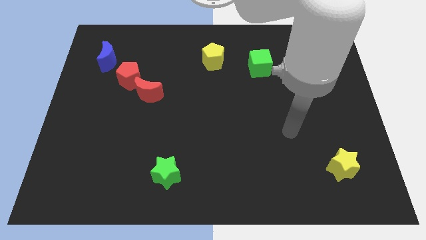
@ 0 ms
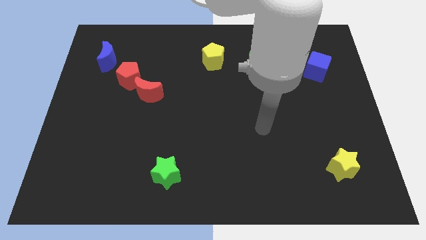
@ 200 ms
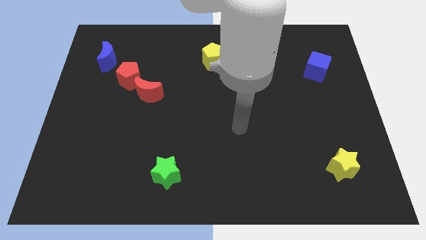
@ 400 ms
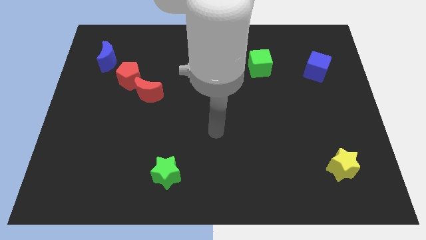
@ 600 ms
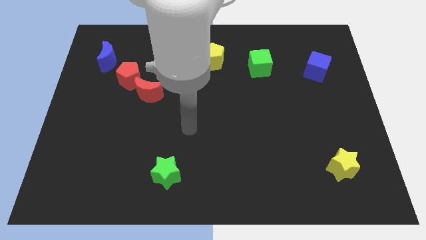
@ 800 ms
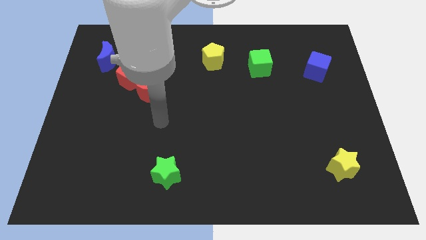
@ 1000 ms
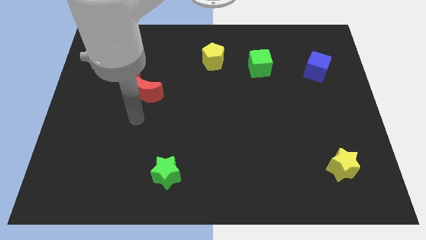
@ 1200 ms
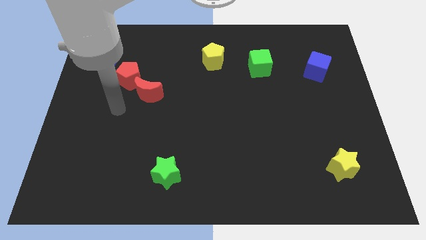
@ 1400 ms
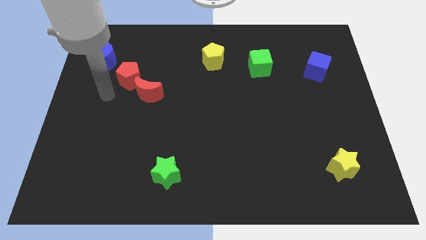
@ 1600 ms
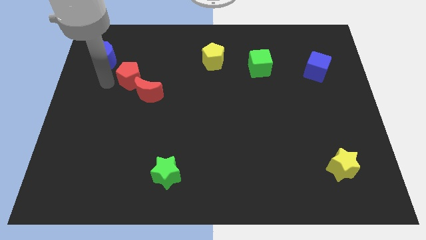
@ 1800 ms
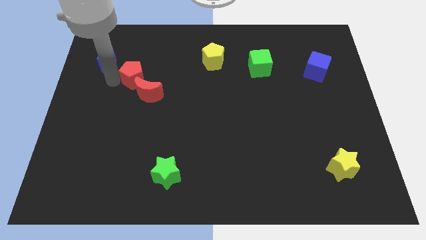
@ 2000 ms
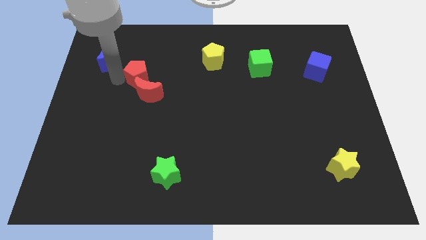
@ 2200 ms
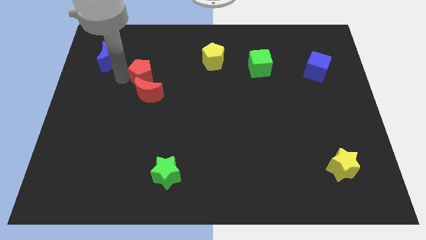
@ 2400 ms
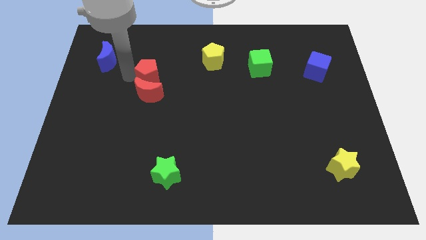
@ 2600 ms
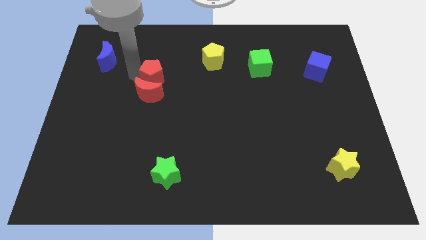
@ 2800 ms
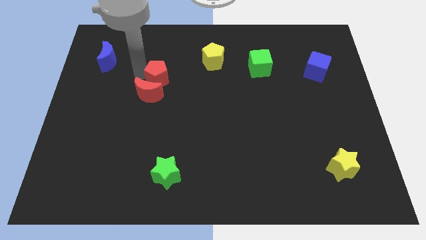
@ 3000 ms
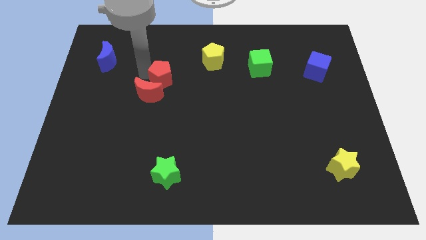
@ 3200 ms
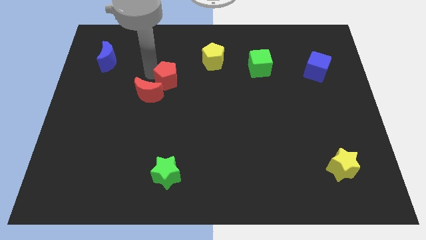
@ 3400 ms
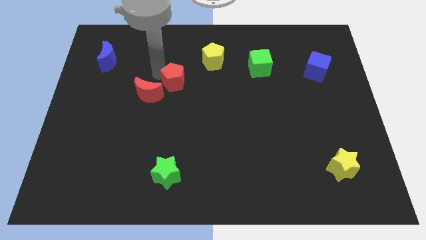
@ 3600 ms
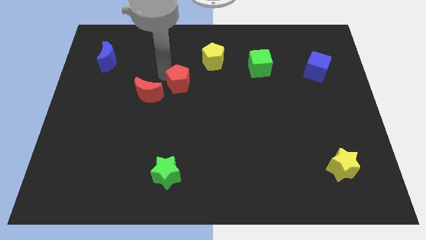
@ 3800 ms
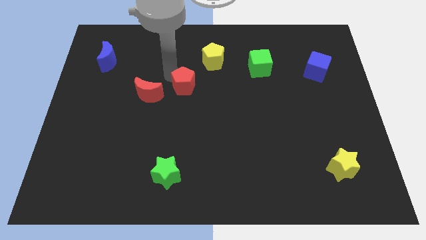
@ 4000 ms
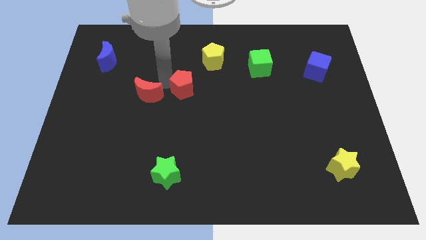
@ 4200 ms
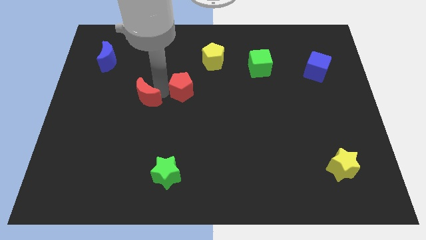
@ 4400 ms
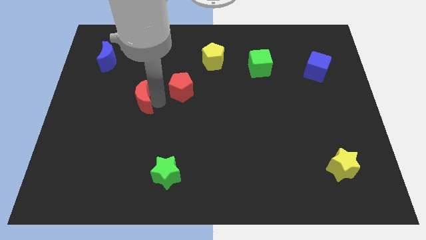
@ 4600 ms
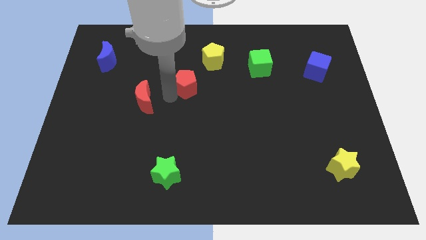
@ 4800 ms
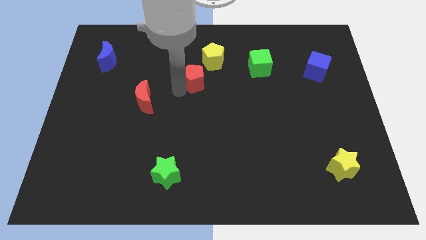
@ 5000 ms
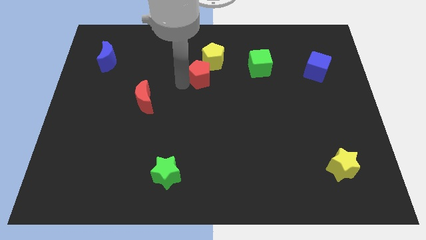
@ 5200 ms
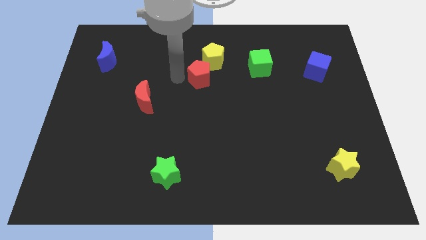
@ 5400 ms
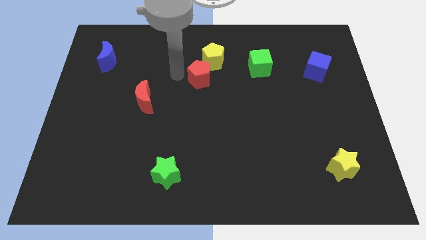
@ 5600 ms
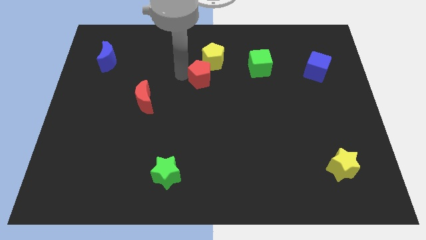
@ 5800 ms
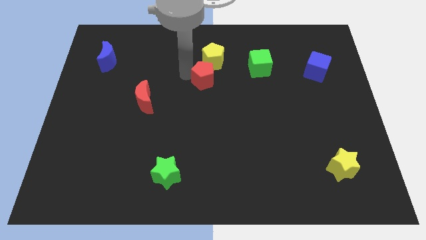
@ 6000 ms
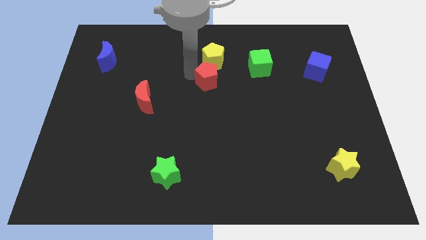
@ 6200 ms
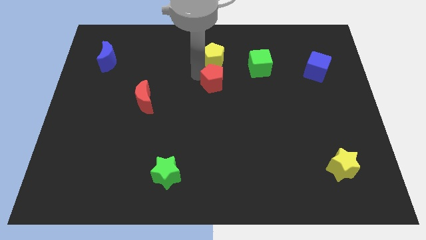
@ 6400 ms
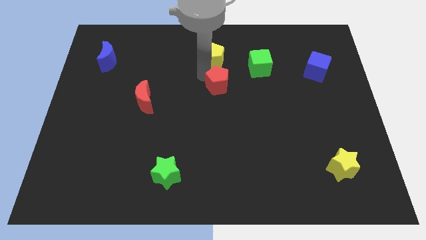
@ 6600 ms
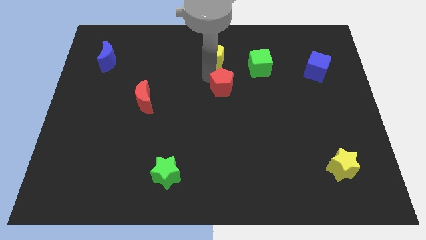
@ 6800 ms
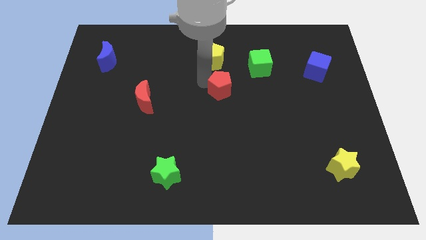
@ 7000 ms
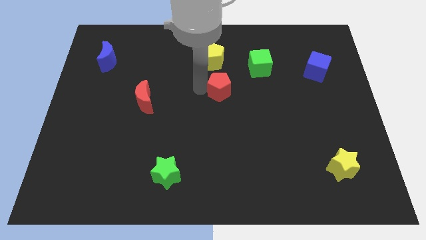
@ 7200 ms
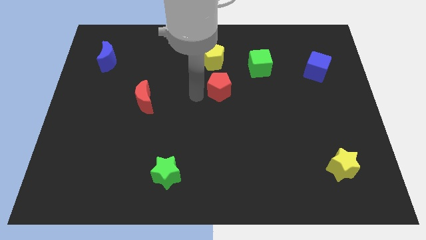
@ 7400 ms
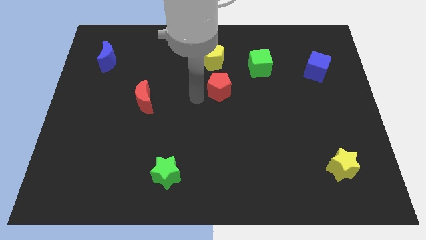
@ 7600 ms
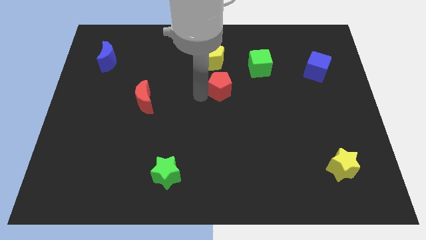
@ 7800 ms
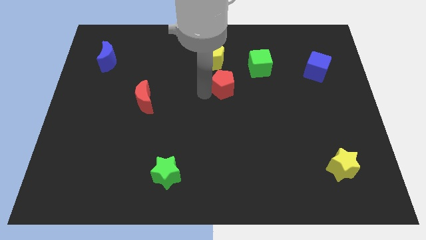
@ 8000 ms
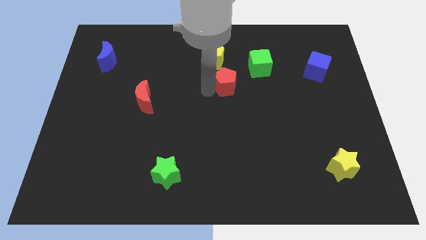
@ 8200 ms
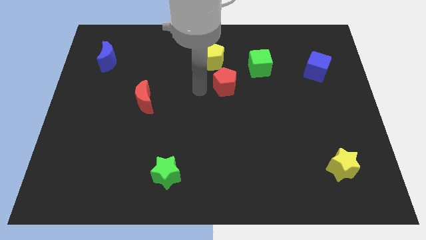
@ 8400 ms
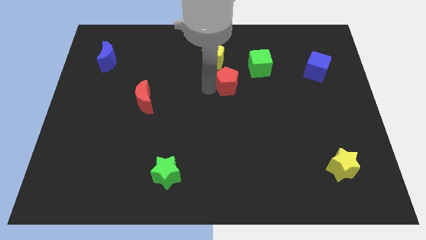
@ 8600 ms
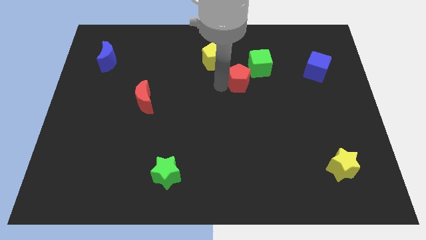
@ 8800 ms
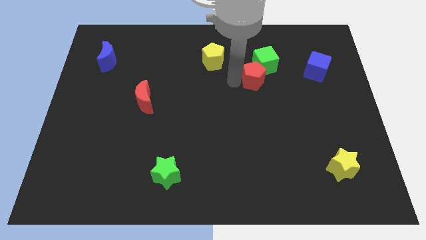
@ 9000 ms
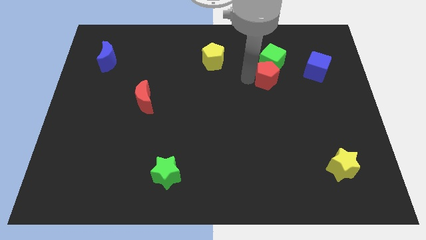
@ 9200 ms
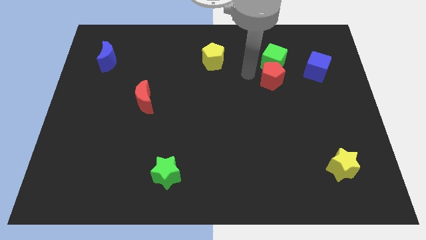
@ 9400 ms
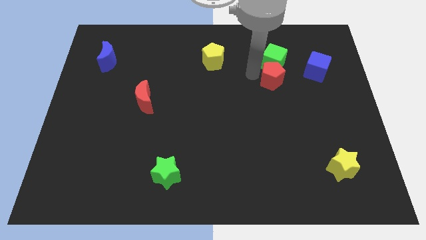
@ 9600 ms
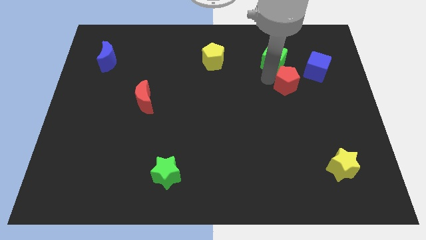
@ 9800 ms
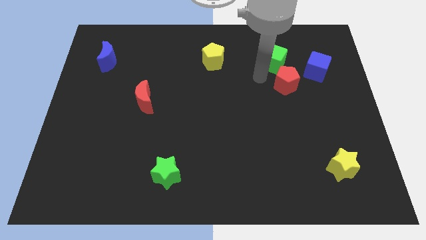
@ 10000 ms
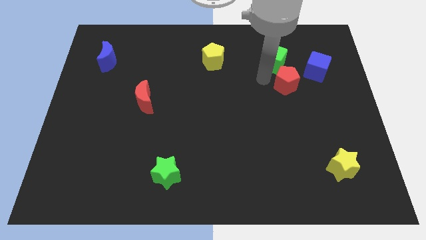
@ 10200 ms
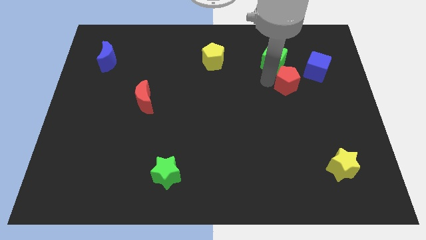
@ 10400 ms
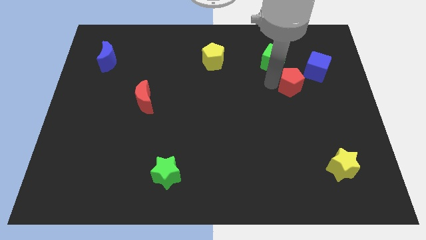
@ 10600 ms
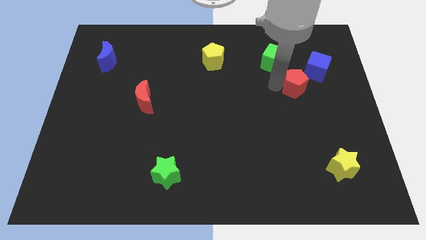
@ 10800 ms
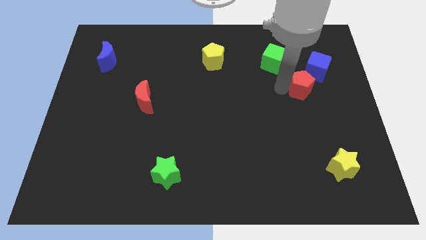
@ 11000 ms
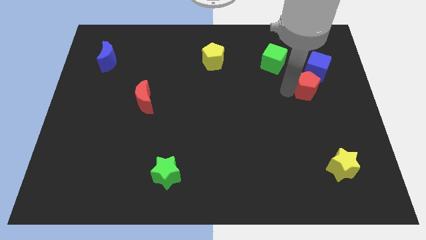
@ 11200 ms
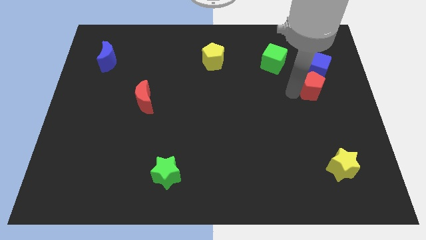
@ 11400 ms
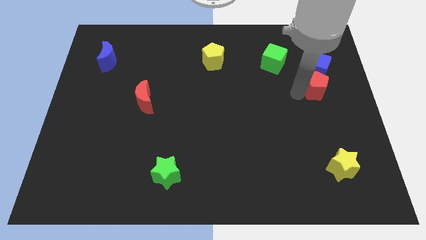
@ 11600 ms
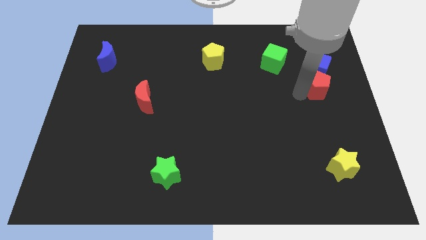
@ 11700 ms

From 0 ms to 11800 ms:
slide the red pentagon to the center right
